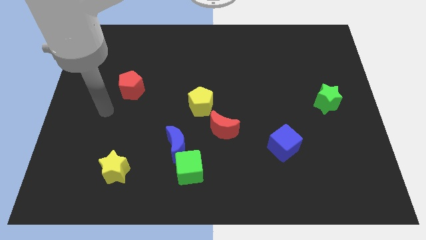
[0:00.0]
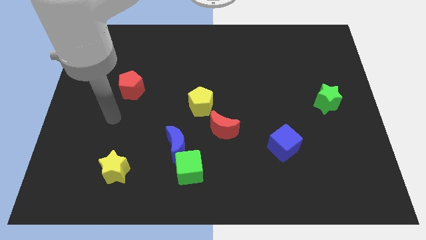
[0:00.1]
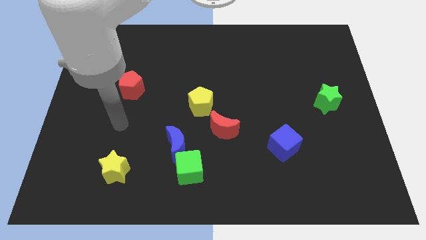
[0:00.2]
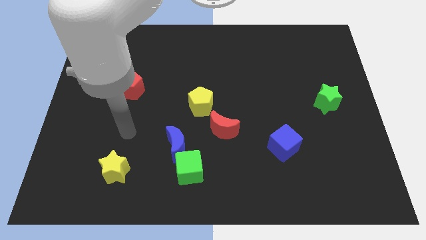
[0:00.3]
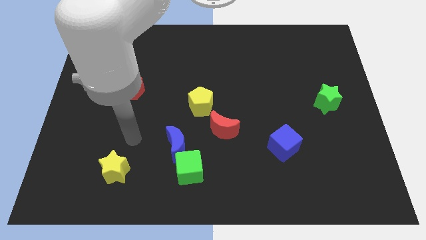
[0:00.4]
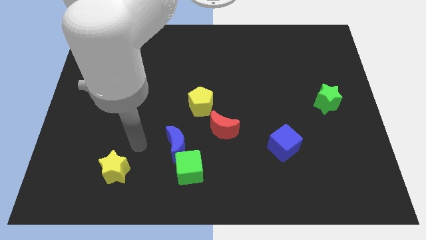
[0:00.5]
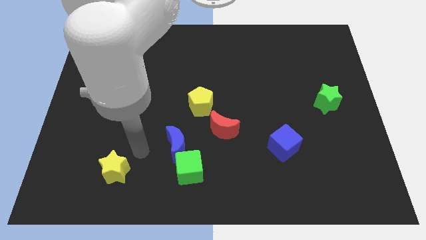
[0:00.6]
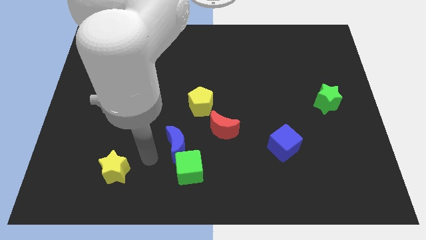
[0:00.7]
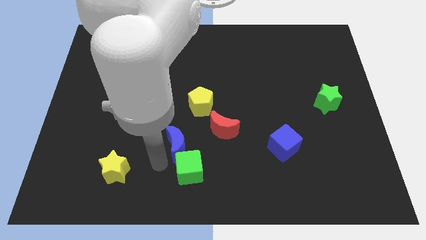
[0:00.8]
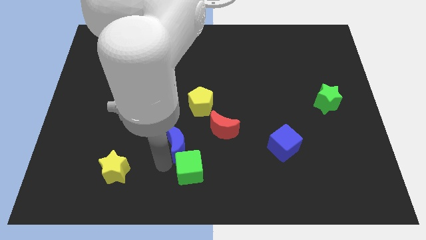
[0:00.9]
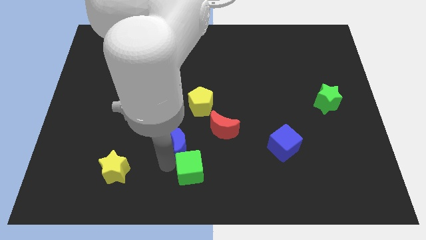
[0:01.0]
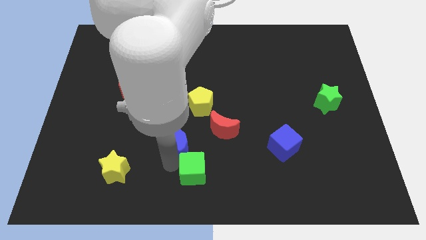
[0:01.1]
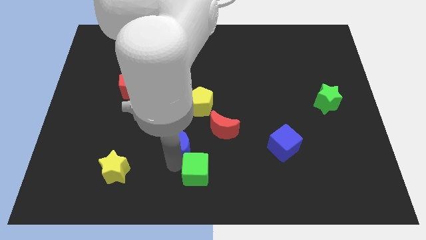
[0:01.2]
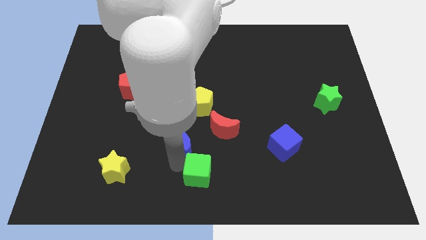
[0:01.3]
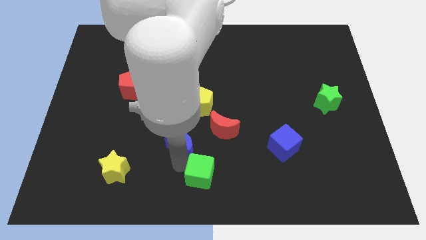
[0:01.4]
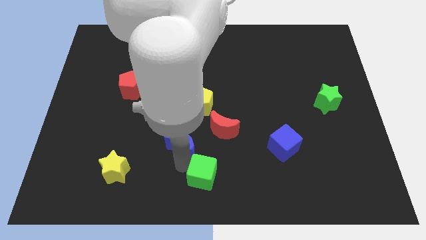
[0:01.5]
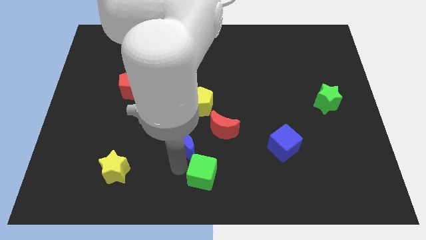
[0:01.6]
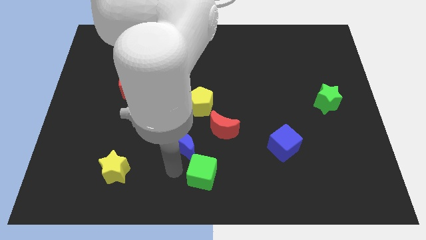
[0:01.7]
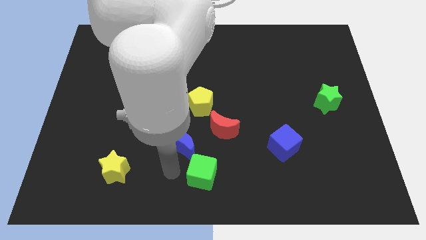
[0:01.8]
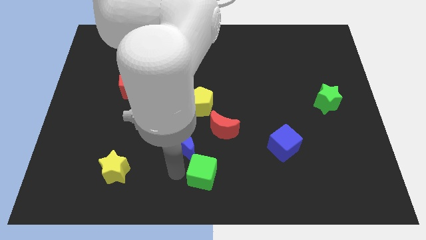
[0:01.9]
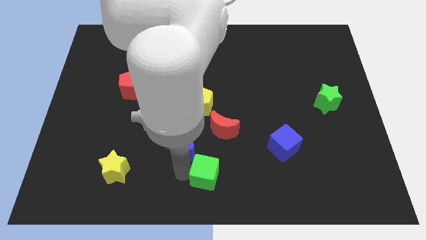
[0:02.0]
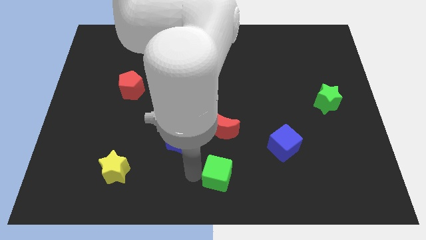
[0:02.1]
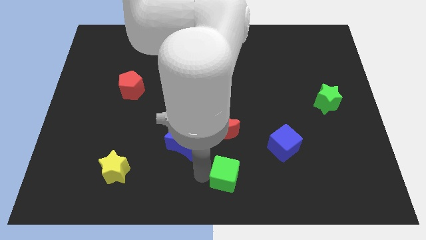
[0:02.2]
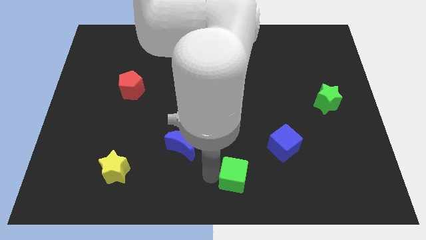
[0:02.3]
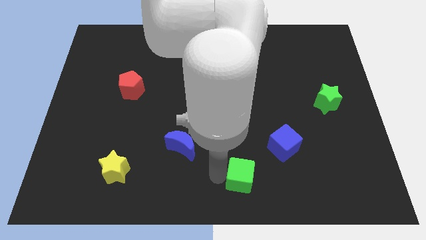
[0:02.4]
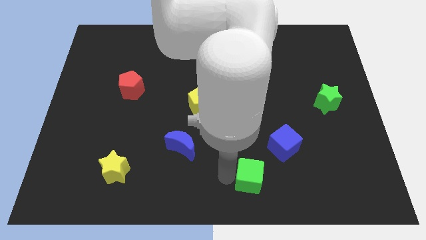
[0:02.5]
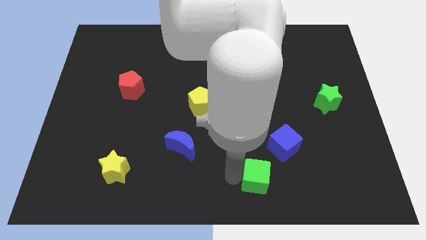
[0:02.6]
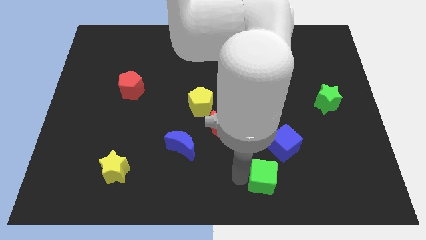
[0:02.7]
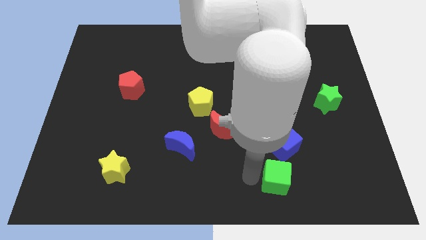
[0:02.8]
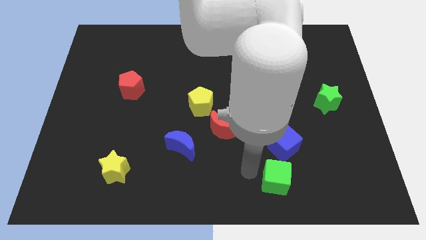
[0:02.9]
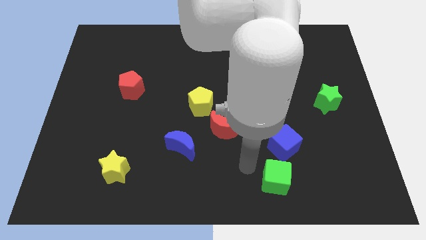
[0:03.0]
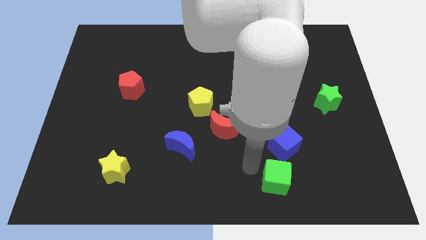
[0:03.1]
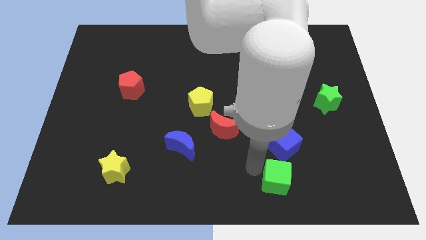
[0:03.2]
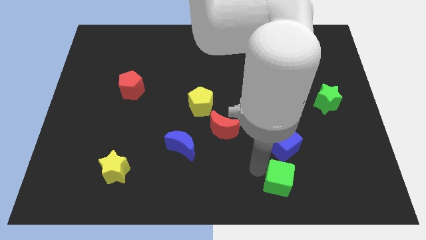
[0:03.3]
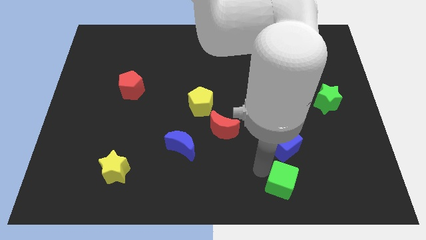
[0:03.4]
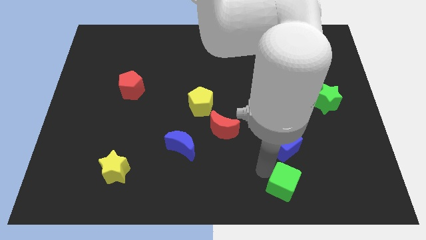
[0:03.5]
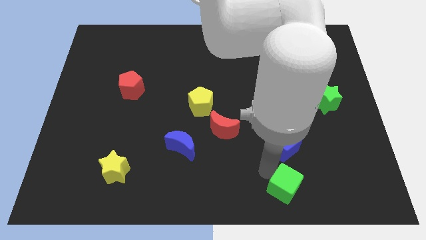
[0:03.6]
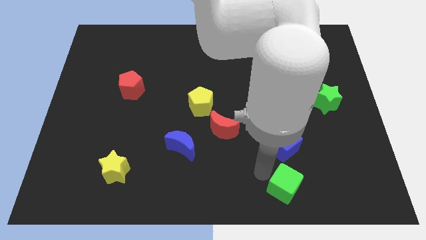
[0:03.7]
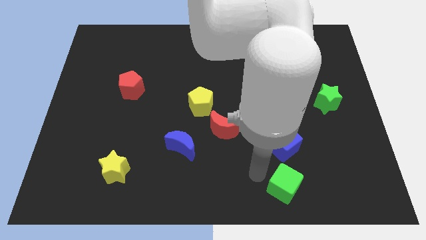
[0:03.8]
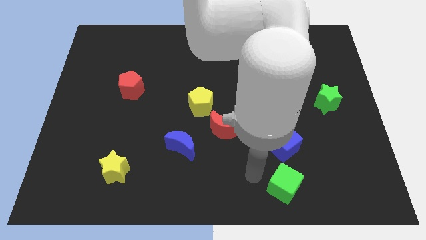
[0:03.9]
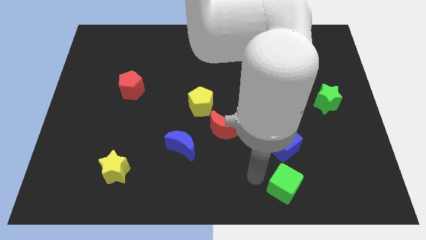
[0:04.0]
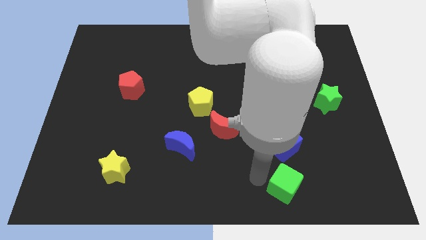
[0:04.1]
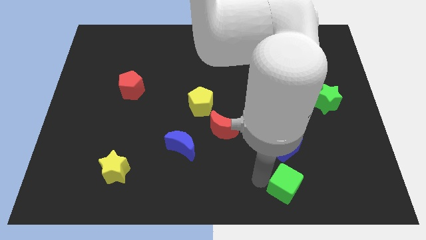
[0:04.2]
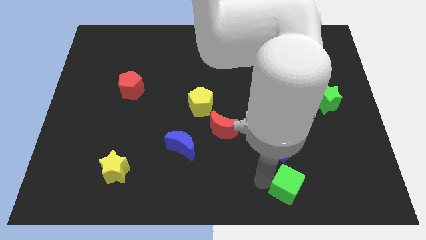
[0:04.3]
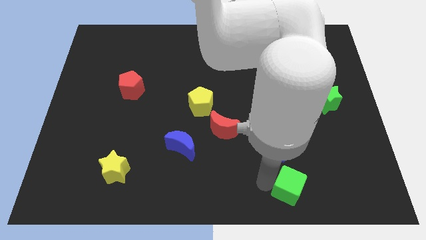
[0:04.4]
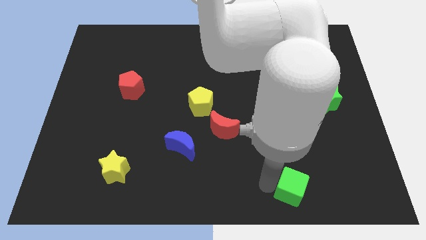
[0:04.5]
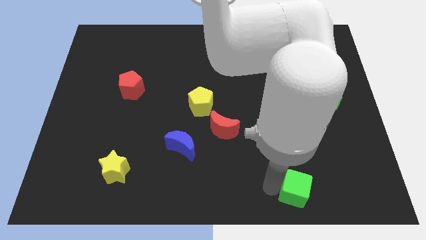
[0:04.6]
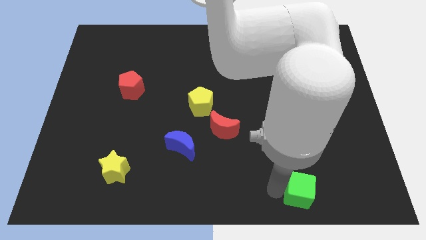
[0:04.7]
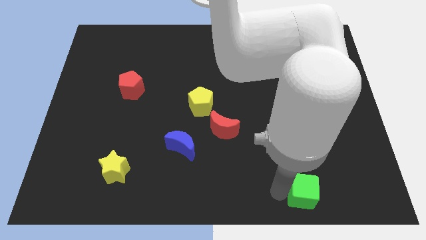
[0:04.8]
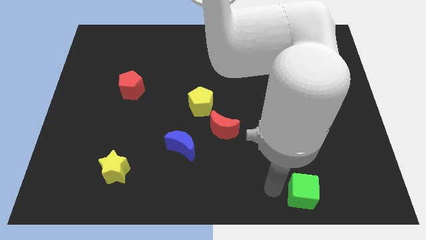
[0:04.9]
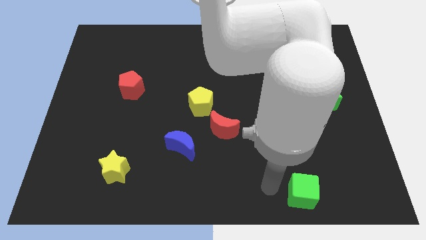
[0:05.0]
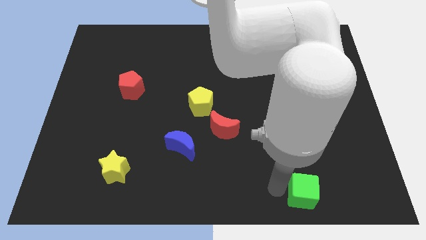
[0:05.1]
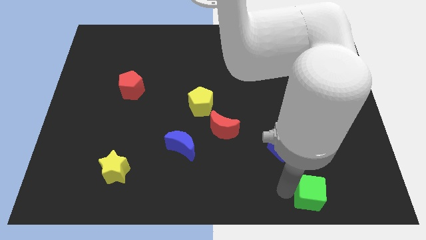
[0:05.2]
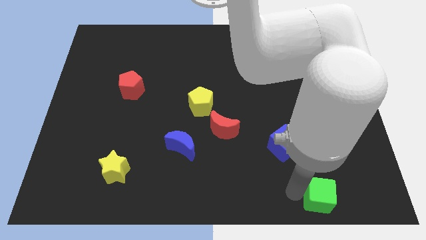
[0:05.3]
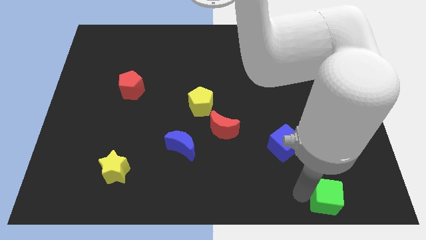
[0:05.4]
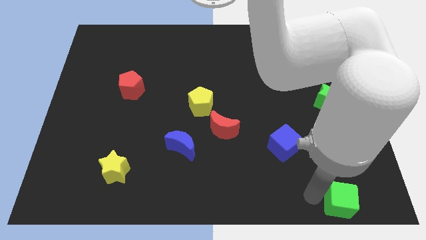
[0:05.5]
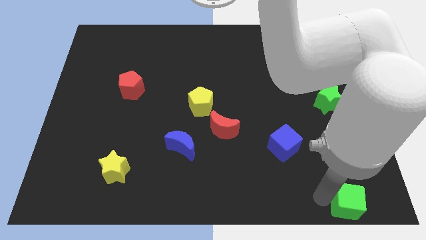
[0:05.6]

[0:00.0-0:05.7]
move the green cube to the lower right corner
